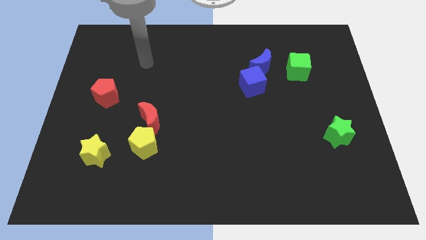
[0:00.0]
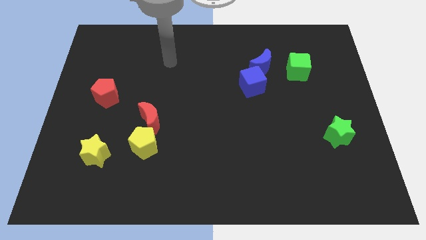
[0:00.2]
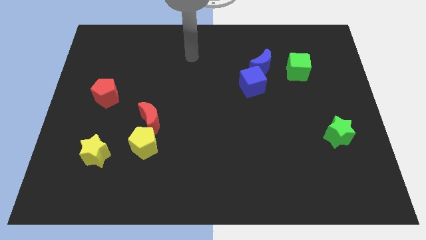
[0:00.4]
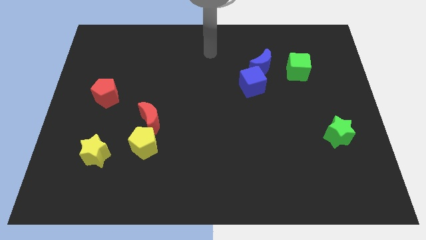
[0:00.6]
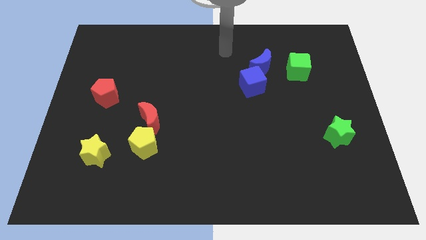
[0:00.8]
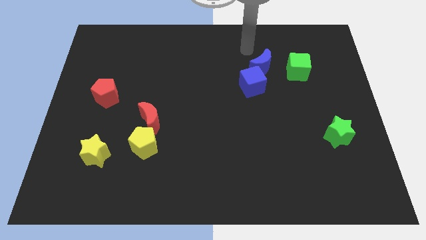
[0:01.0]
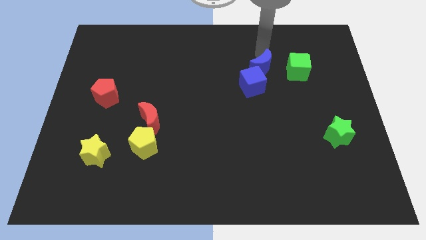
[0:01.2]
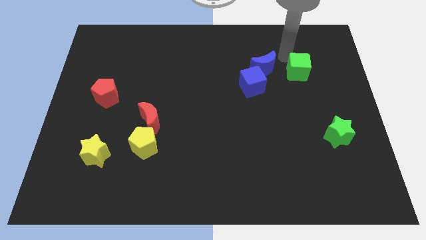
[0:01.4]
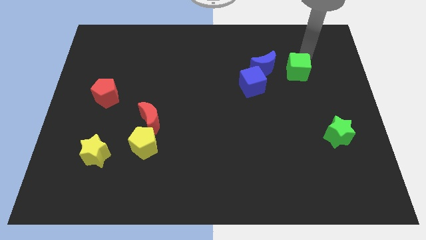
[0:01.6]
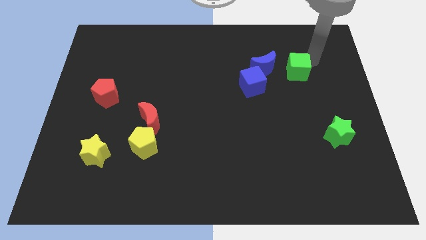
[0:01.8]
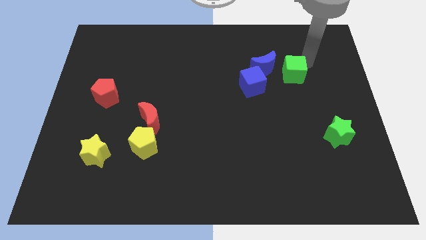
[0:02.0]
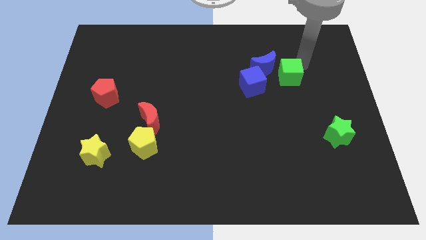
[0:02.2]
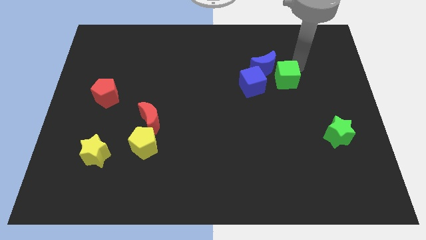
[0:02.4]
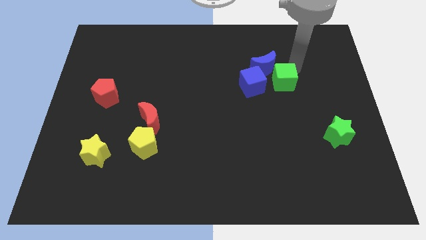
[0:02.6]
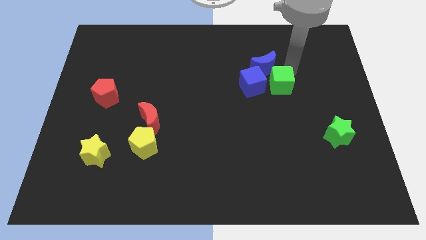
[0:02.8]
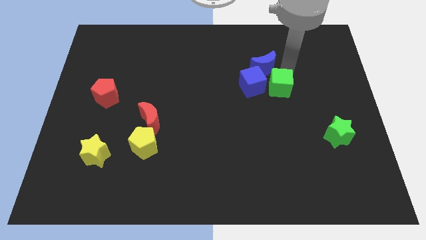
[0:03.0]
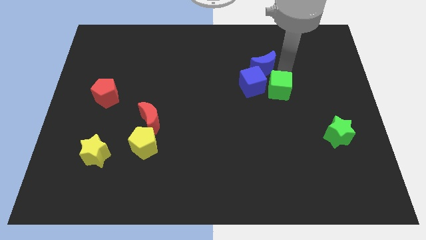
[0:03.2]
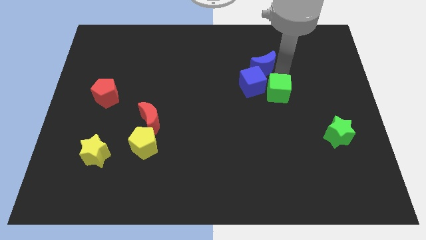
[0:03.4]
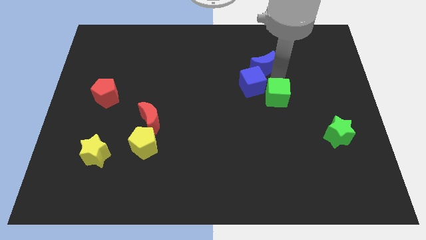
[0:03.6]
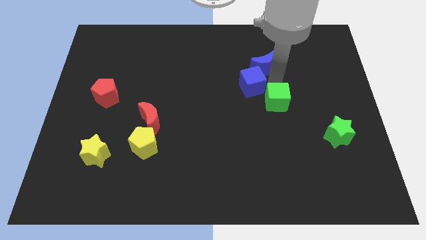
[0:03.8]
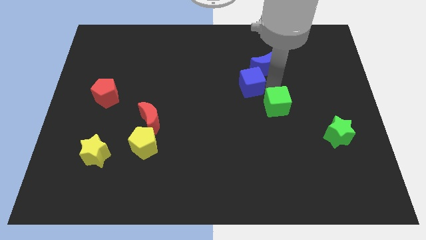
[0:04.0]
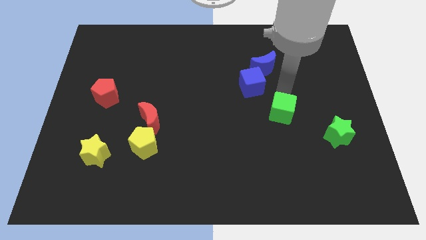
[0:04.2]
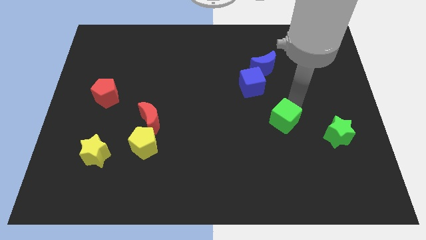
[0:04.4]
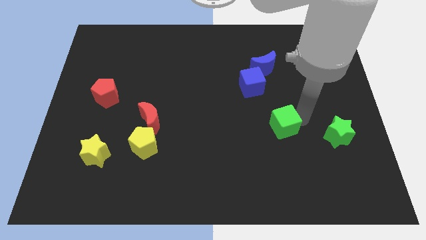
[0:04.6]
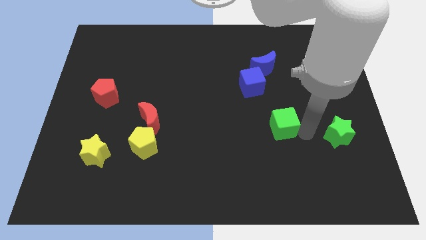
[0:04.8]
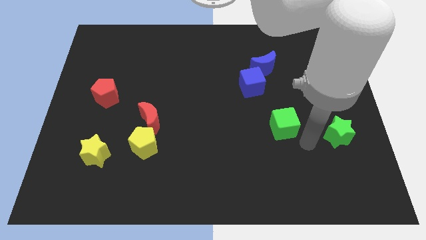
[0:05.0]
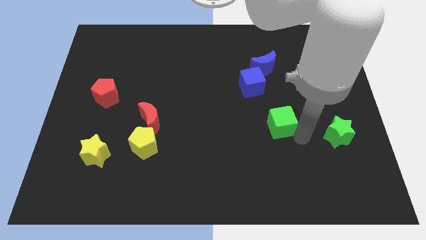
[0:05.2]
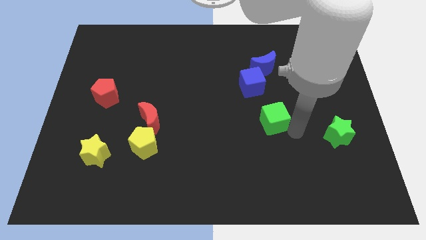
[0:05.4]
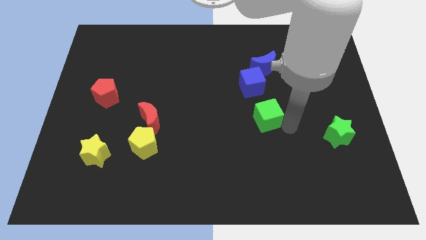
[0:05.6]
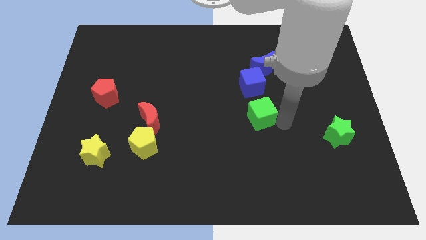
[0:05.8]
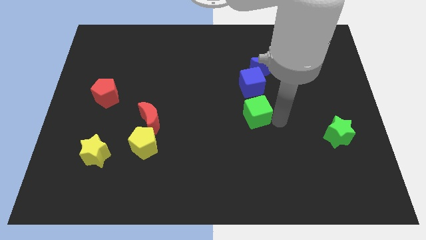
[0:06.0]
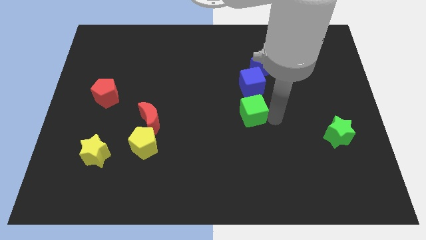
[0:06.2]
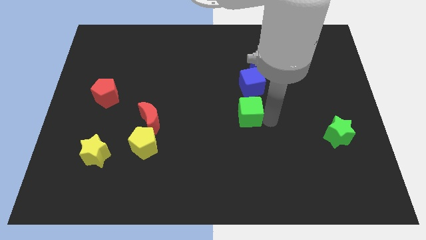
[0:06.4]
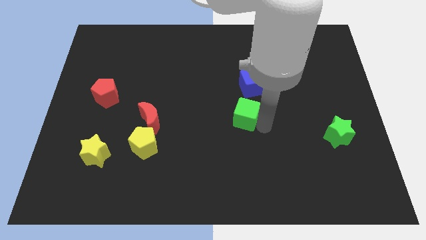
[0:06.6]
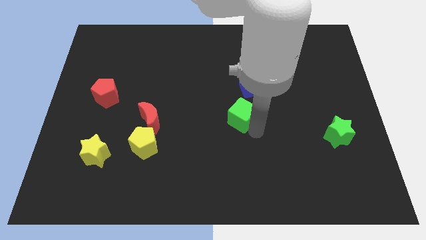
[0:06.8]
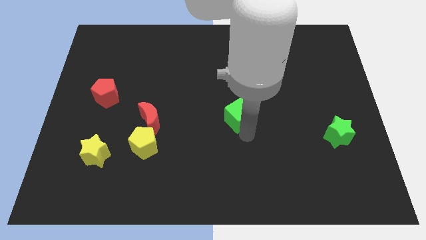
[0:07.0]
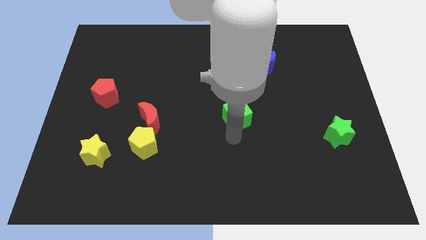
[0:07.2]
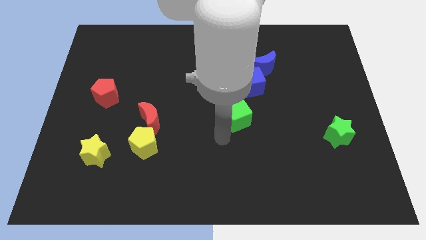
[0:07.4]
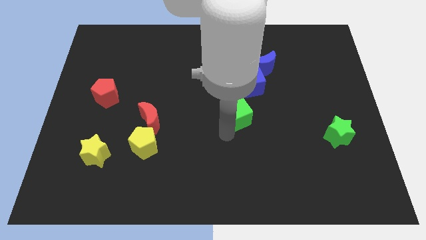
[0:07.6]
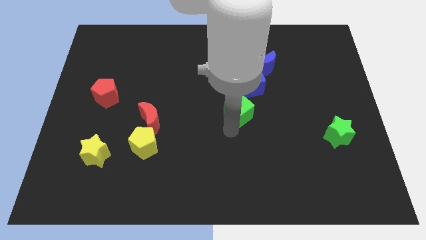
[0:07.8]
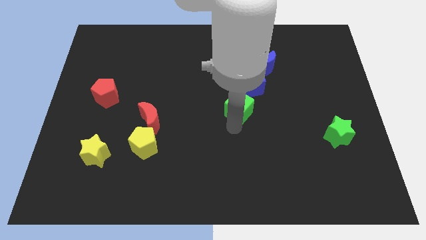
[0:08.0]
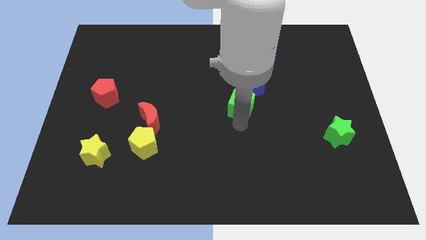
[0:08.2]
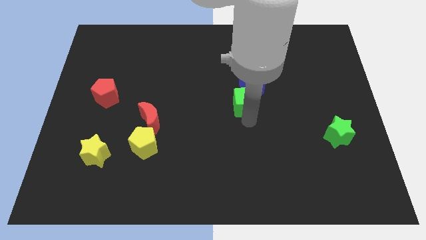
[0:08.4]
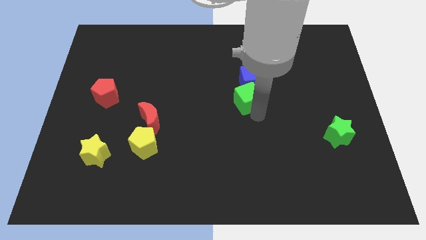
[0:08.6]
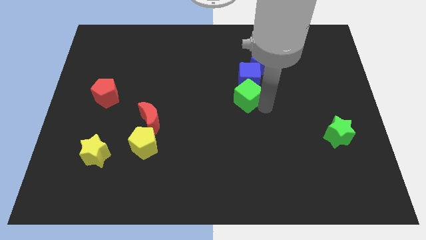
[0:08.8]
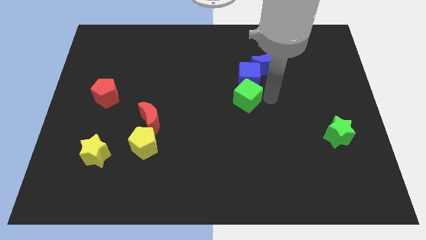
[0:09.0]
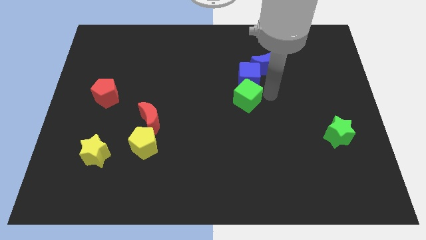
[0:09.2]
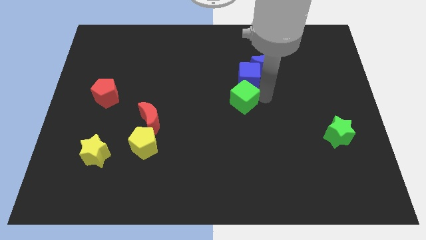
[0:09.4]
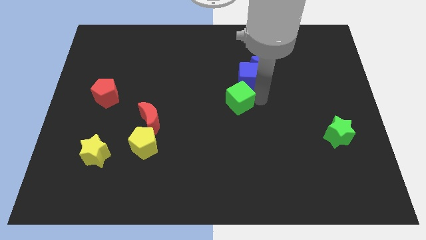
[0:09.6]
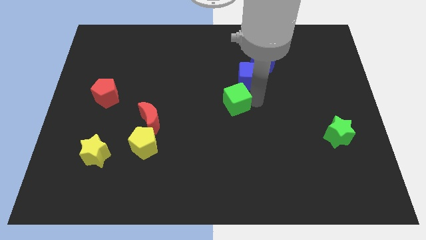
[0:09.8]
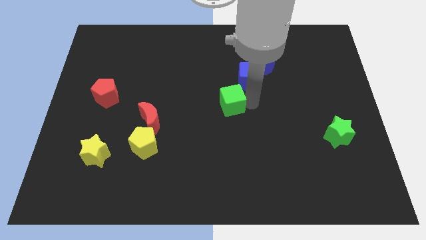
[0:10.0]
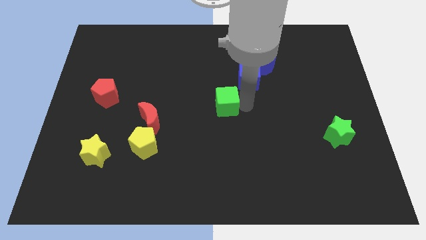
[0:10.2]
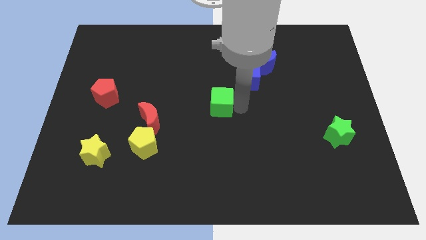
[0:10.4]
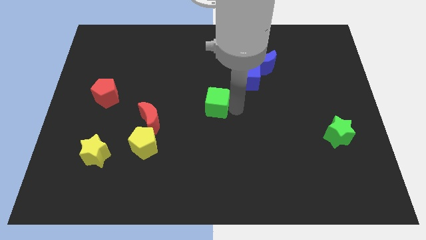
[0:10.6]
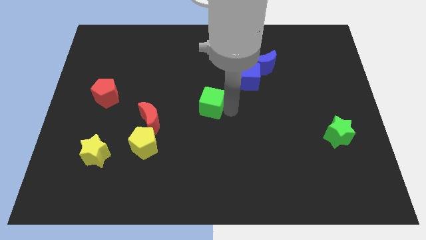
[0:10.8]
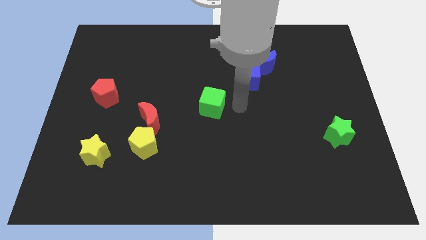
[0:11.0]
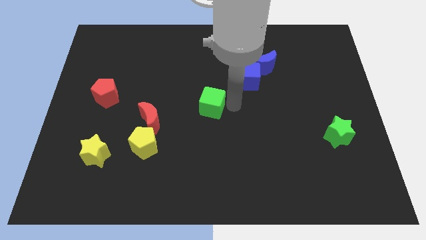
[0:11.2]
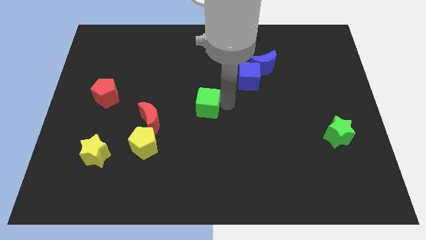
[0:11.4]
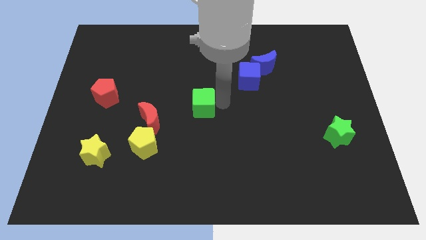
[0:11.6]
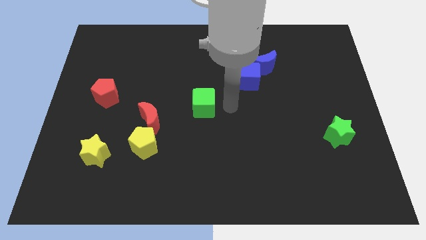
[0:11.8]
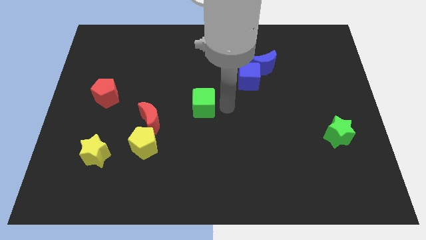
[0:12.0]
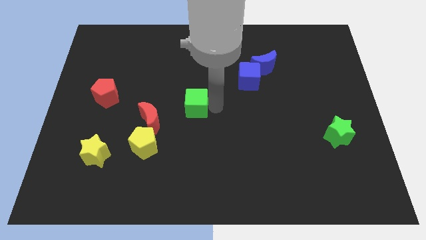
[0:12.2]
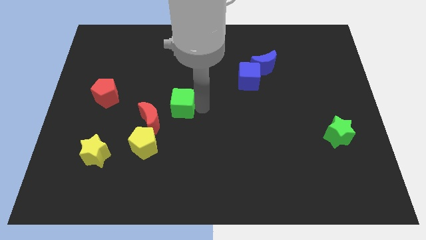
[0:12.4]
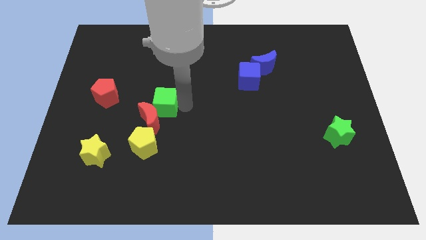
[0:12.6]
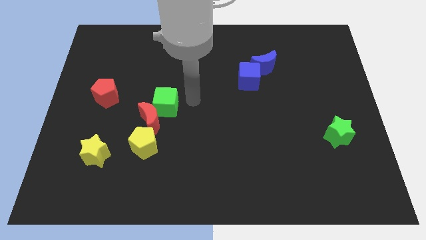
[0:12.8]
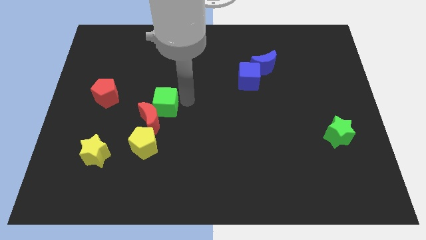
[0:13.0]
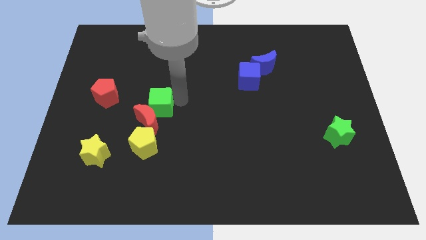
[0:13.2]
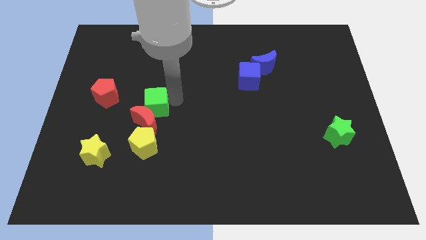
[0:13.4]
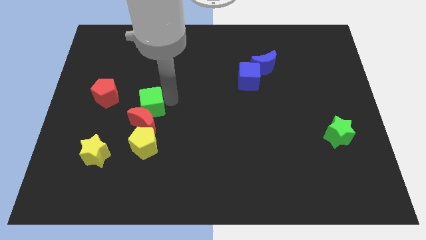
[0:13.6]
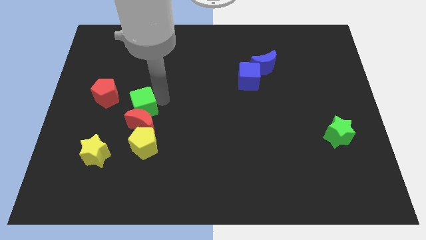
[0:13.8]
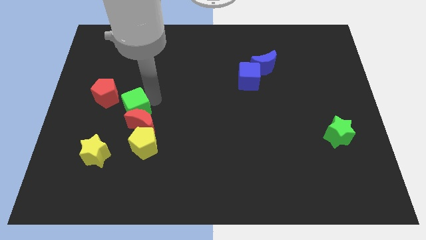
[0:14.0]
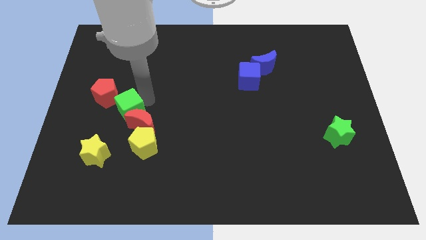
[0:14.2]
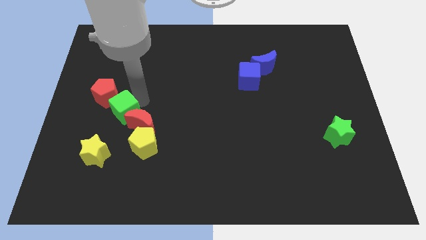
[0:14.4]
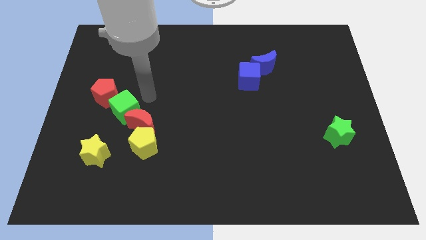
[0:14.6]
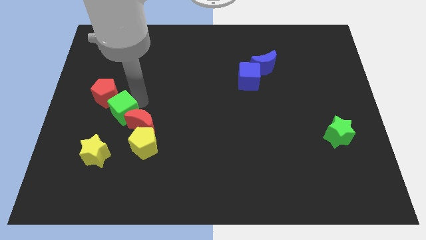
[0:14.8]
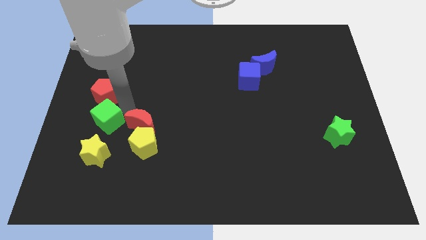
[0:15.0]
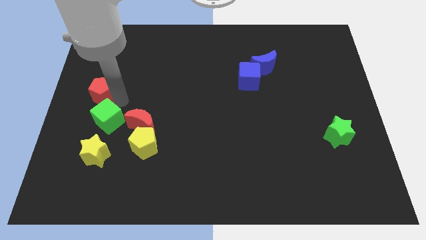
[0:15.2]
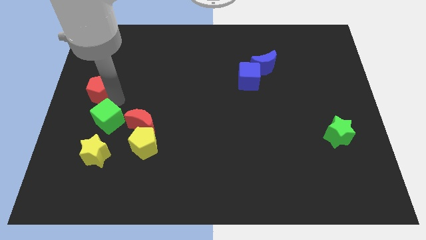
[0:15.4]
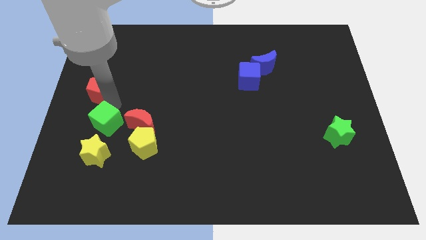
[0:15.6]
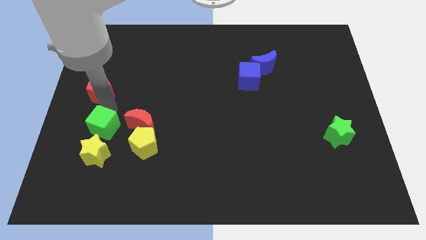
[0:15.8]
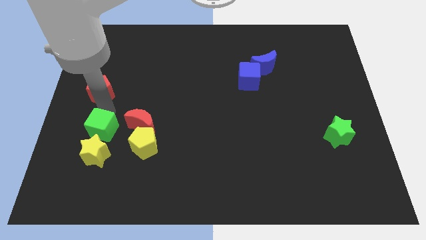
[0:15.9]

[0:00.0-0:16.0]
slide the green cube left of the yellow pentagon
